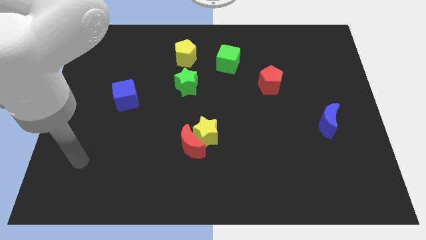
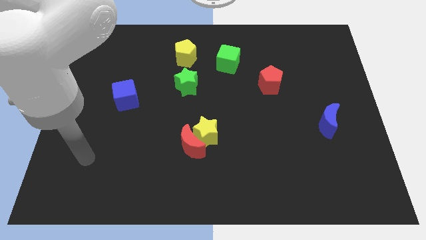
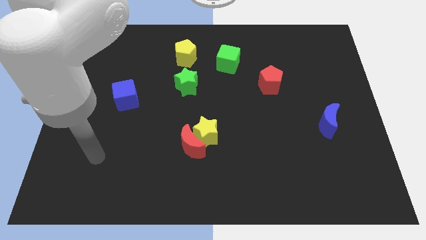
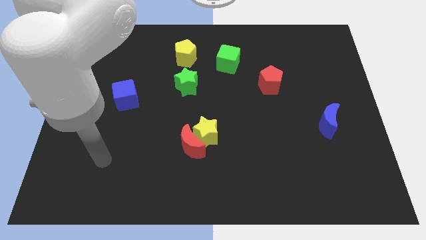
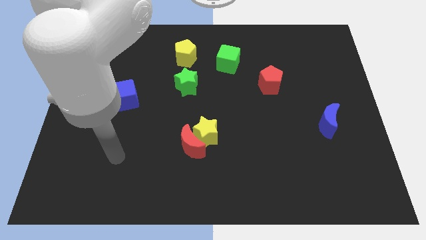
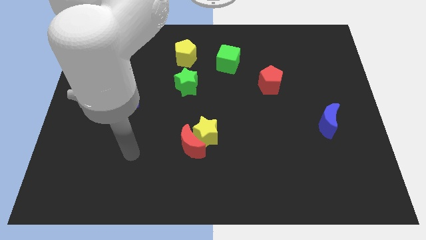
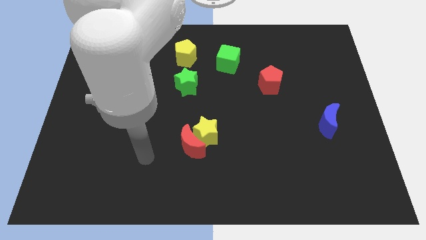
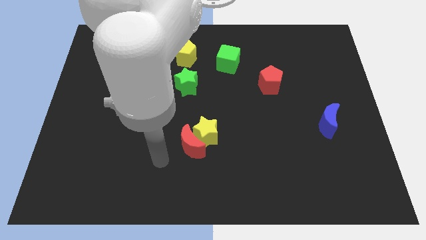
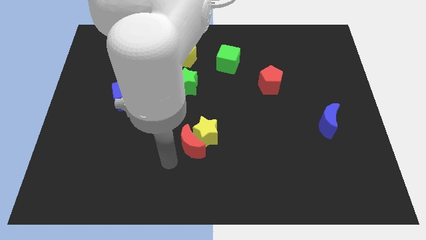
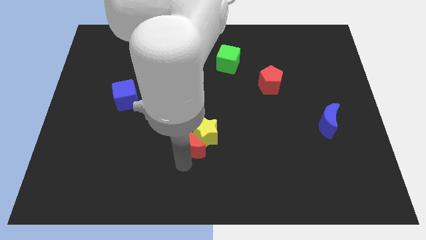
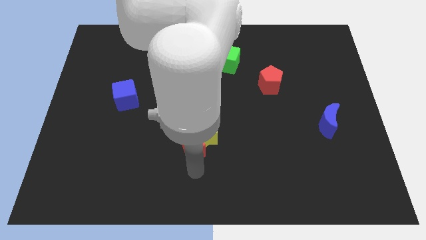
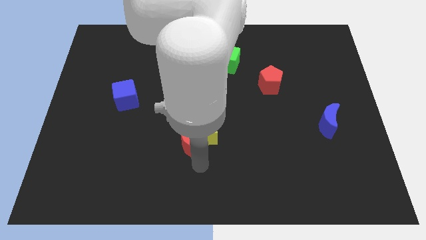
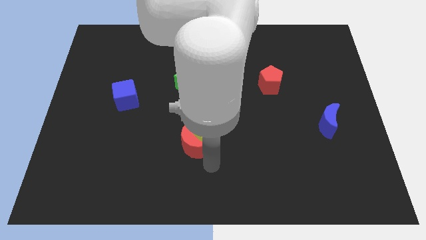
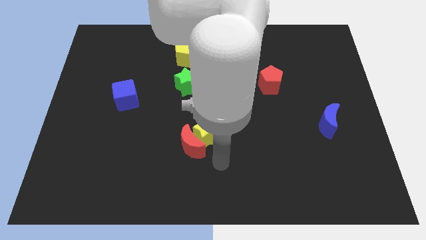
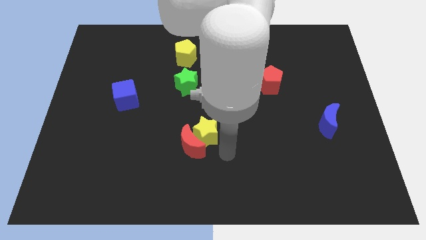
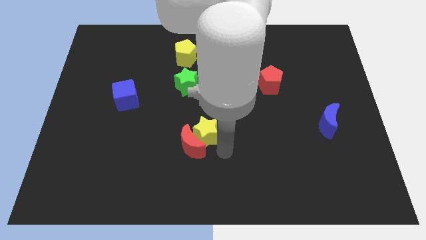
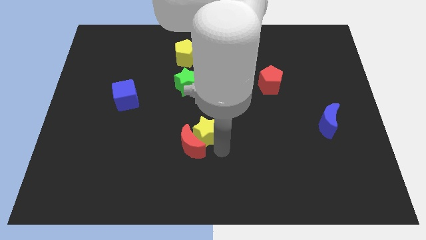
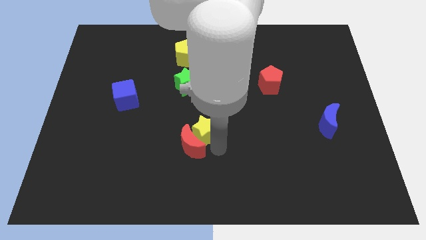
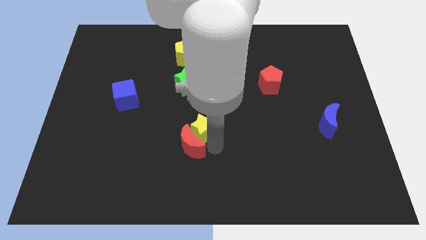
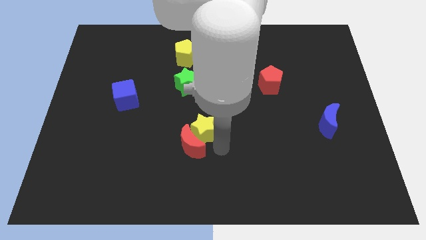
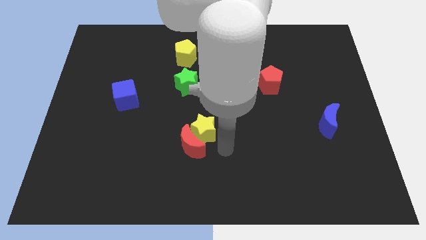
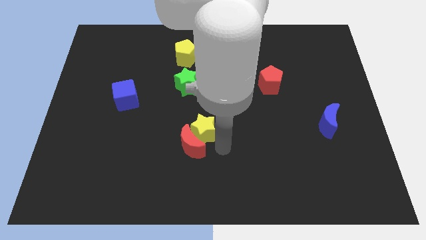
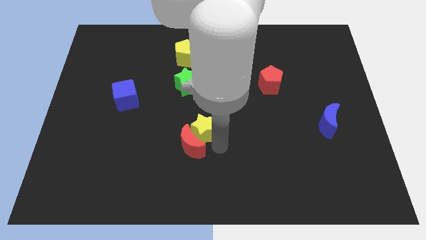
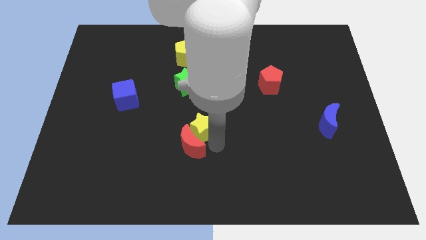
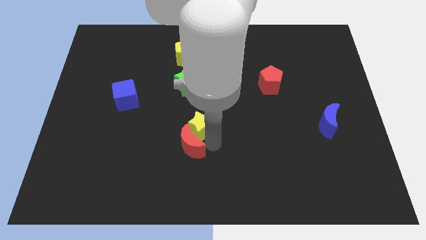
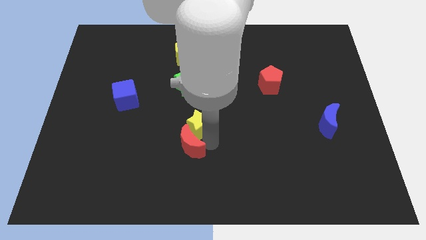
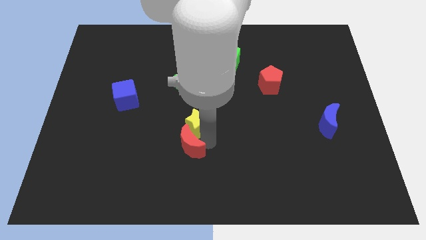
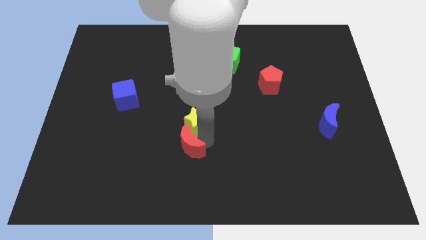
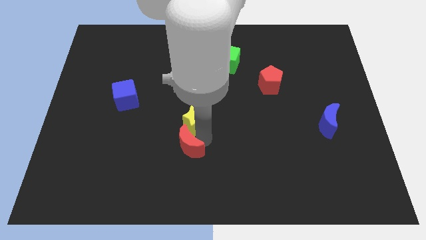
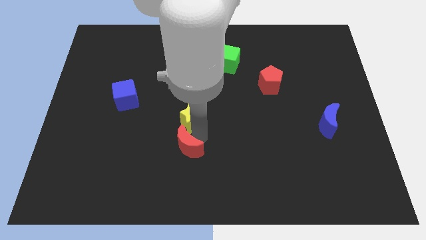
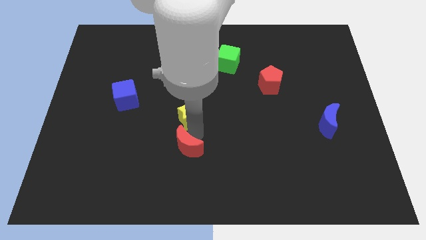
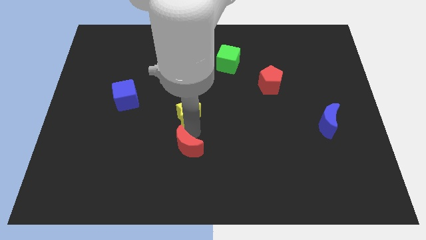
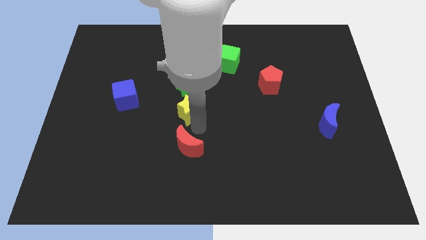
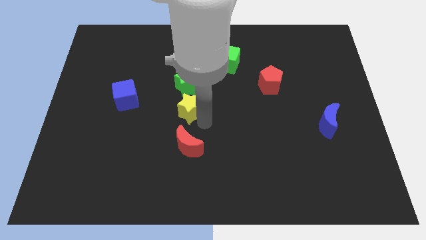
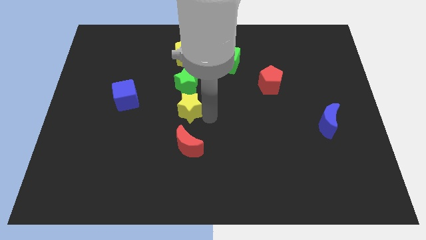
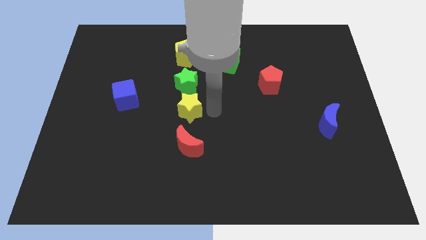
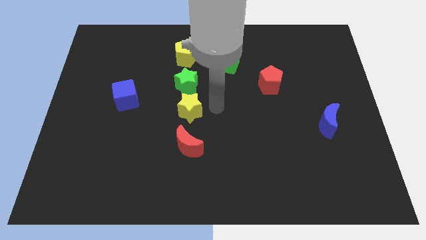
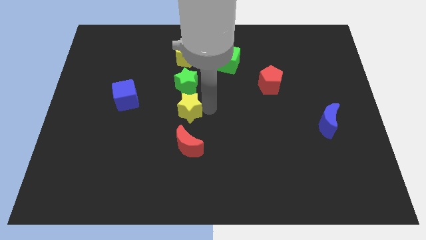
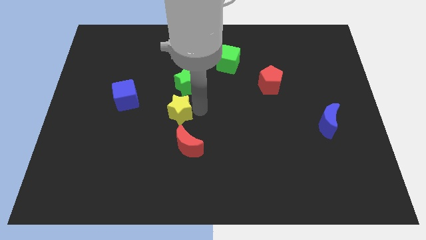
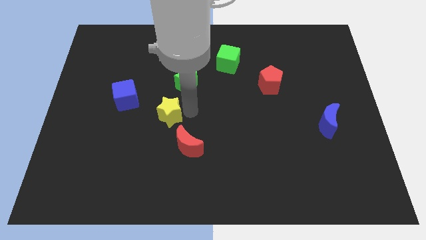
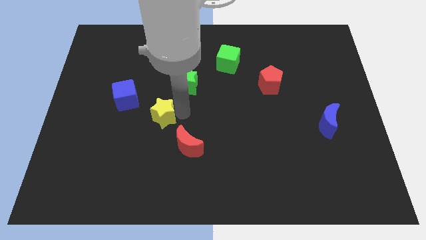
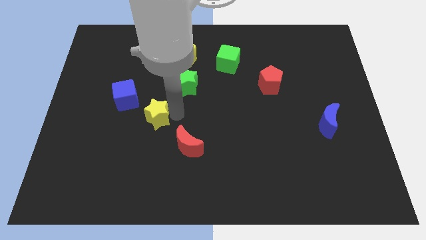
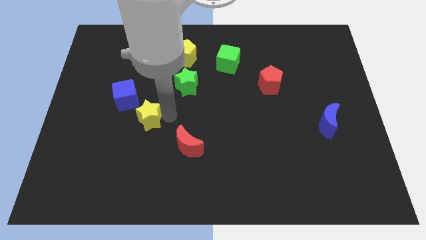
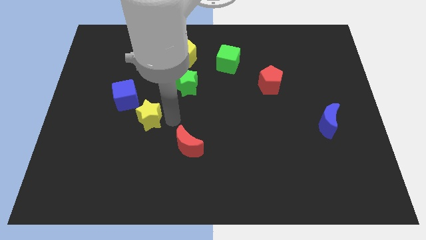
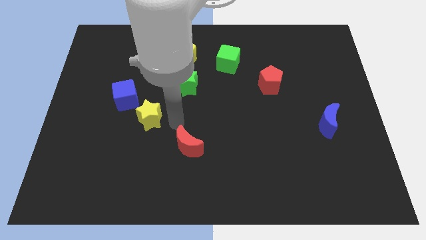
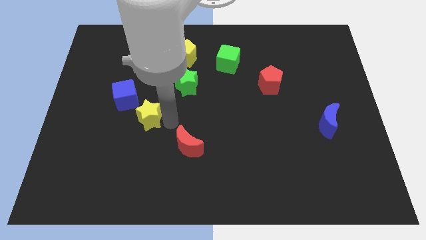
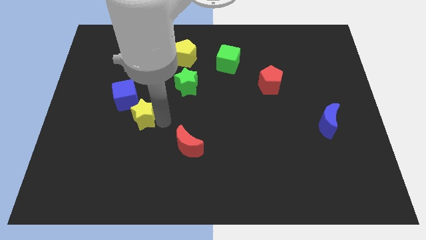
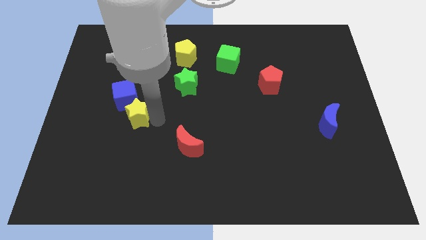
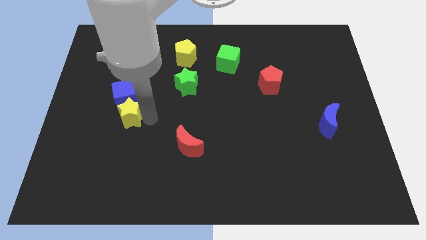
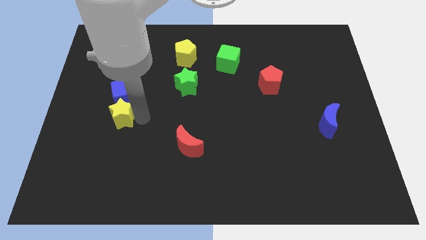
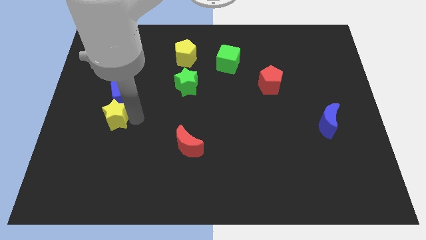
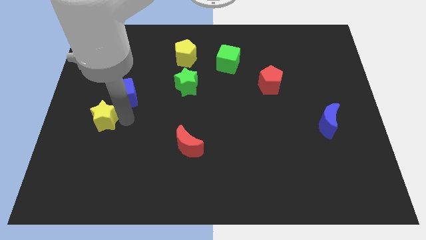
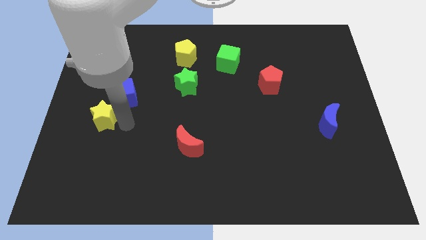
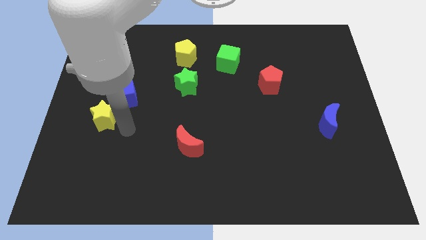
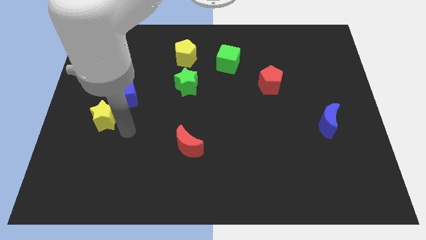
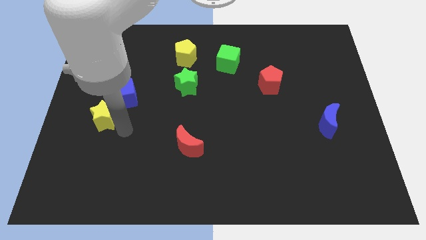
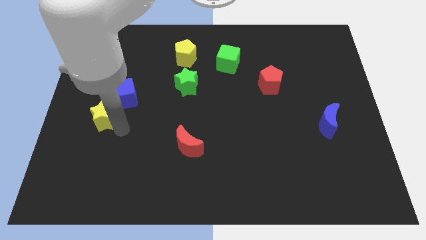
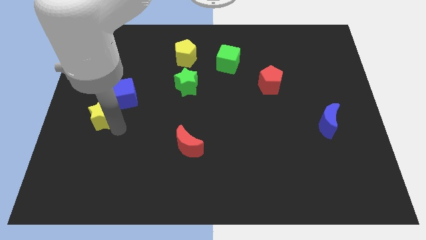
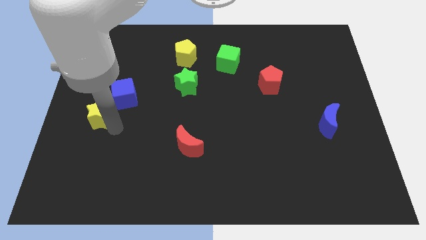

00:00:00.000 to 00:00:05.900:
slide the yellow star to the left side of the board
